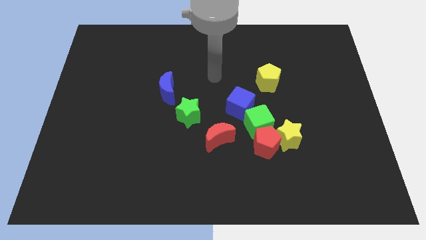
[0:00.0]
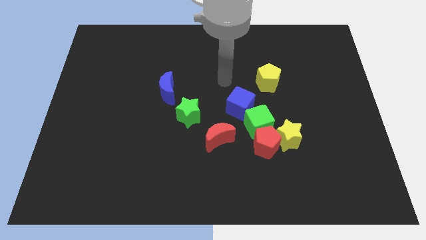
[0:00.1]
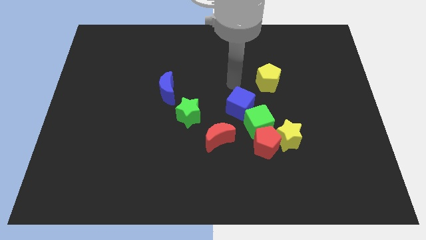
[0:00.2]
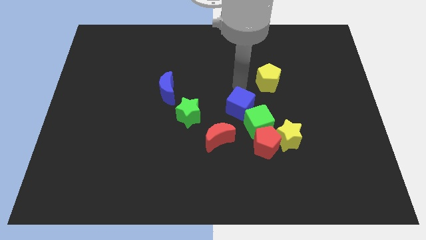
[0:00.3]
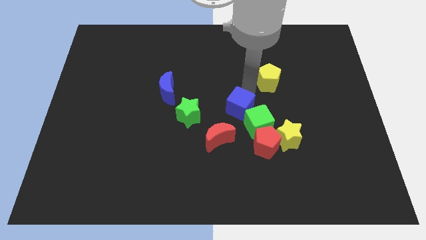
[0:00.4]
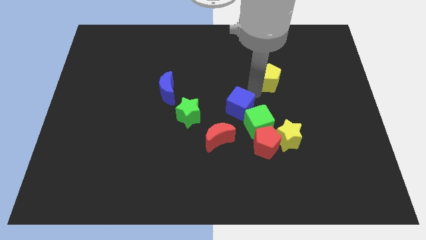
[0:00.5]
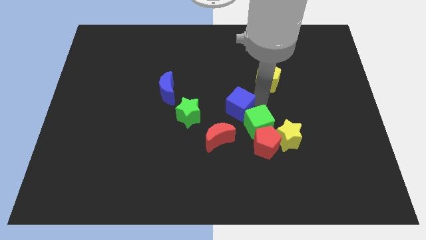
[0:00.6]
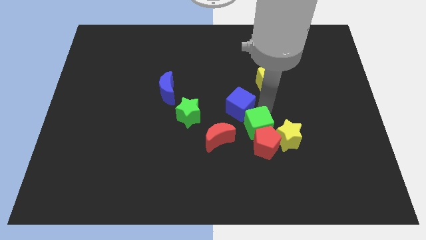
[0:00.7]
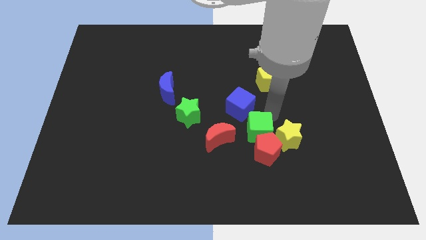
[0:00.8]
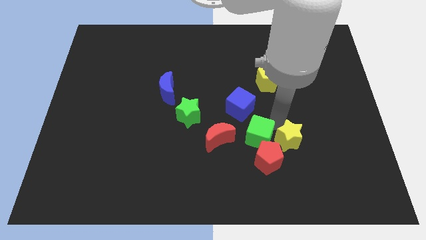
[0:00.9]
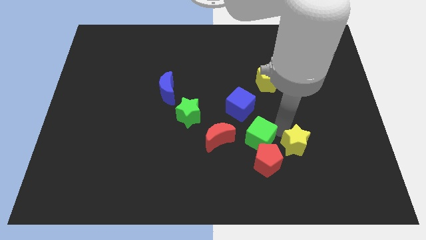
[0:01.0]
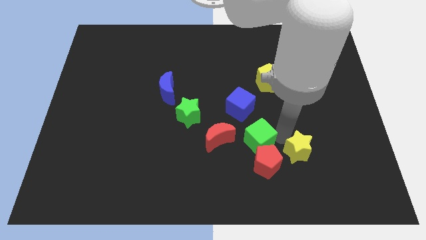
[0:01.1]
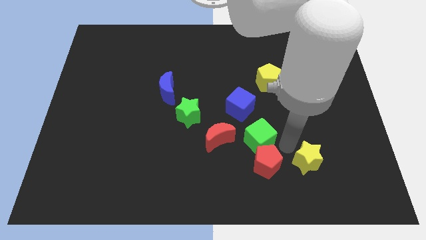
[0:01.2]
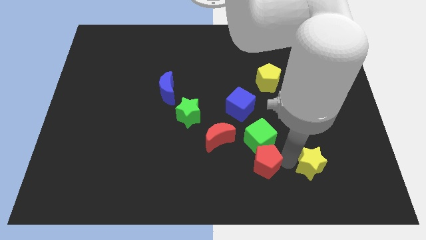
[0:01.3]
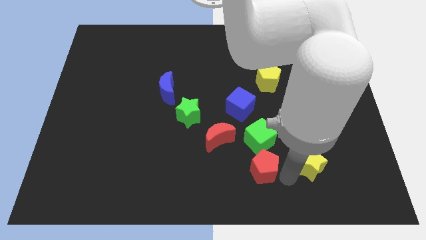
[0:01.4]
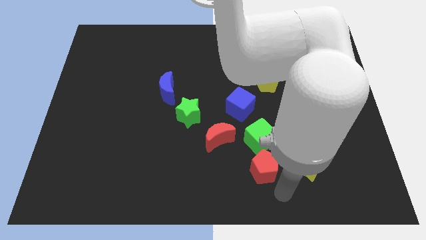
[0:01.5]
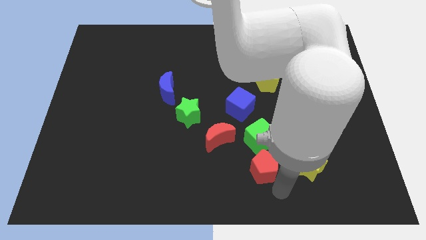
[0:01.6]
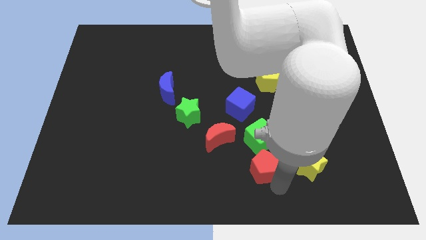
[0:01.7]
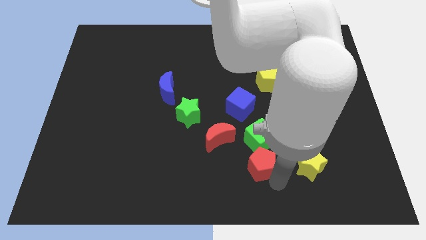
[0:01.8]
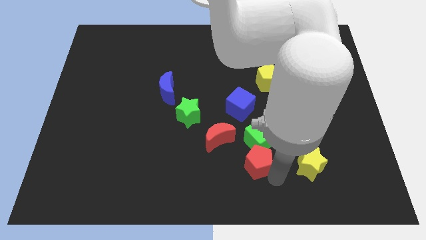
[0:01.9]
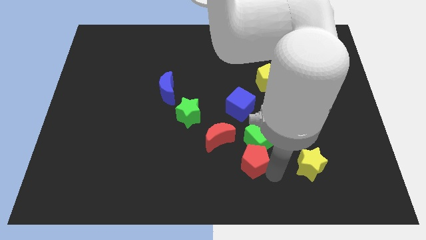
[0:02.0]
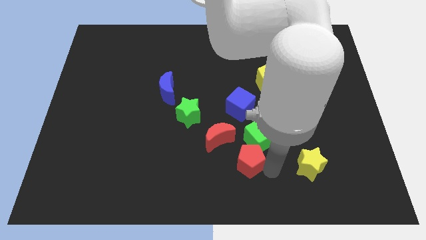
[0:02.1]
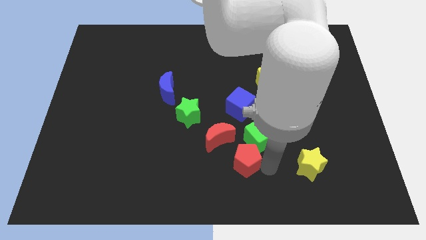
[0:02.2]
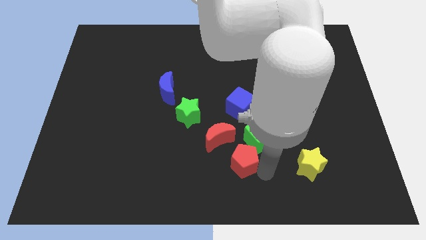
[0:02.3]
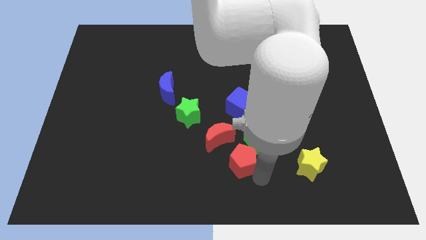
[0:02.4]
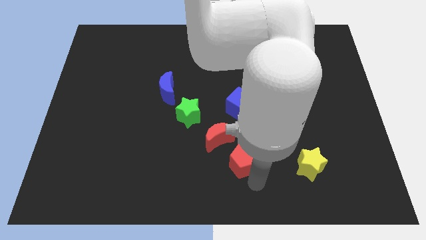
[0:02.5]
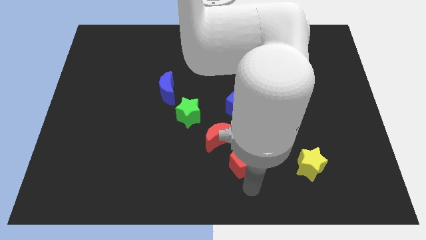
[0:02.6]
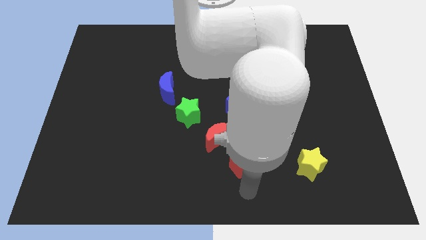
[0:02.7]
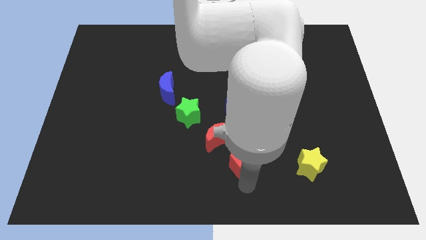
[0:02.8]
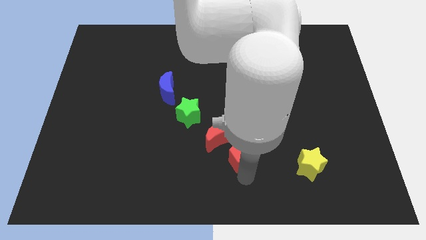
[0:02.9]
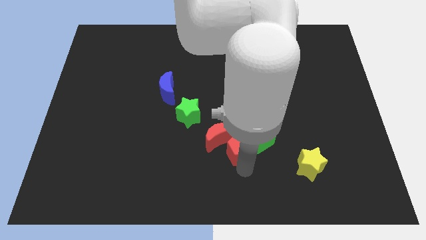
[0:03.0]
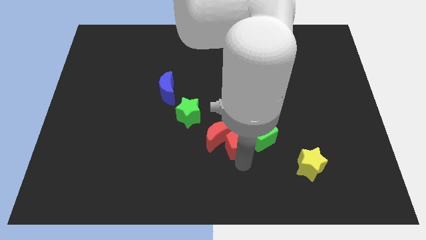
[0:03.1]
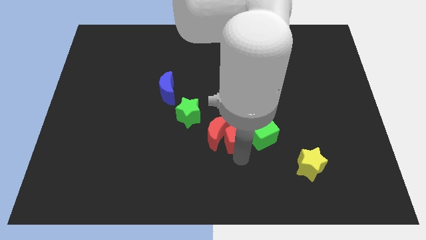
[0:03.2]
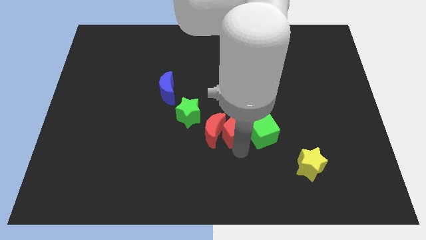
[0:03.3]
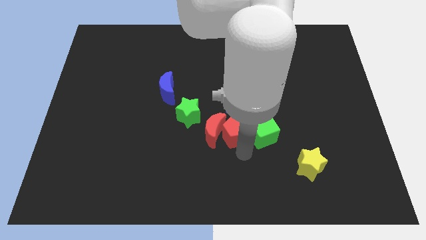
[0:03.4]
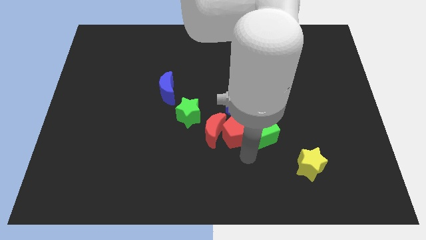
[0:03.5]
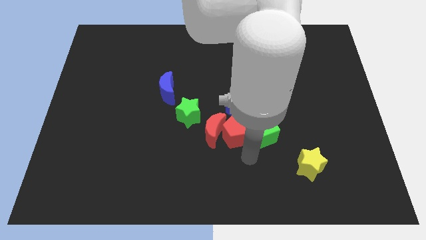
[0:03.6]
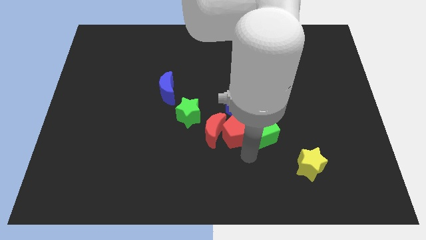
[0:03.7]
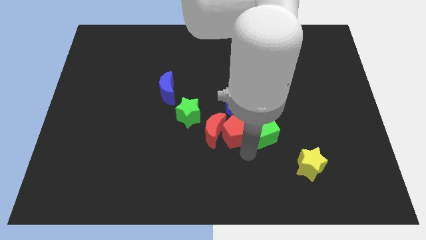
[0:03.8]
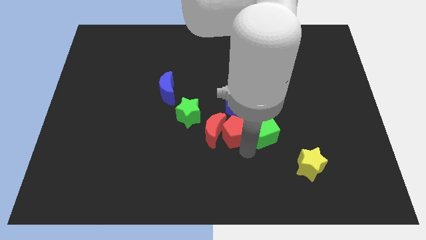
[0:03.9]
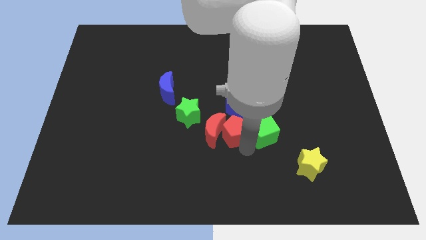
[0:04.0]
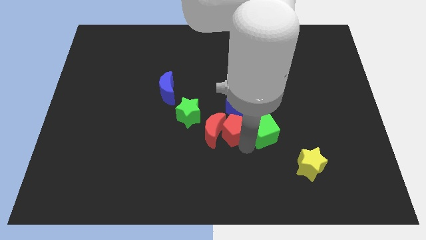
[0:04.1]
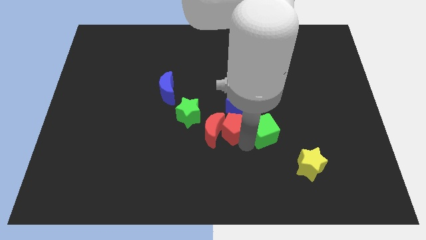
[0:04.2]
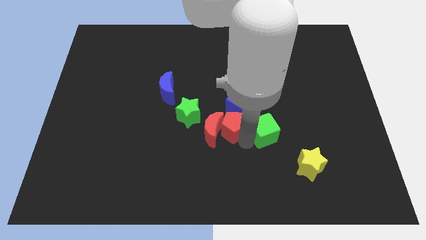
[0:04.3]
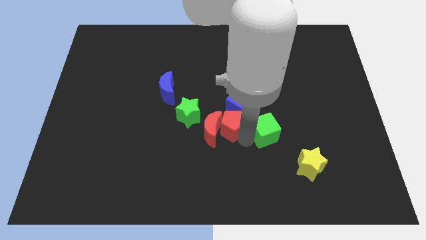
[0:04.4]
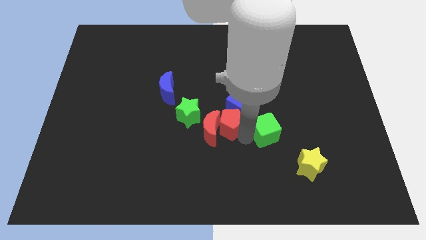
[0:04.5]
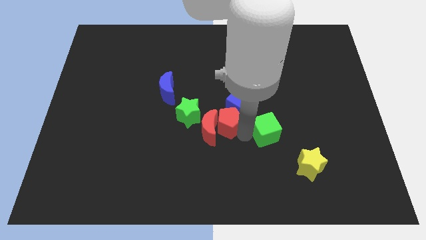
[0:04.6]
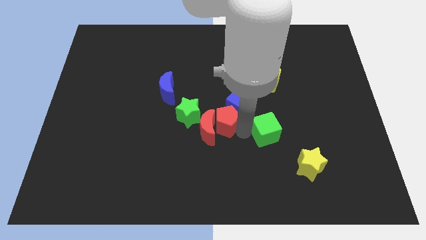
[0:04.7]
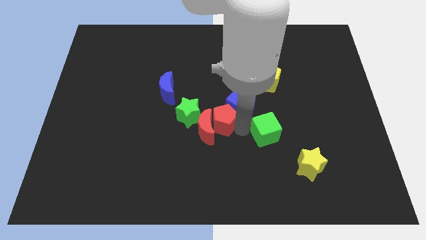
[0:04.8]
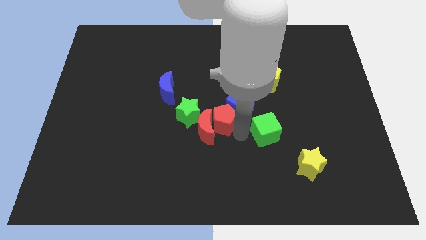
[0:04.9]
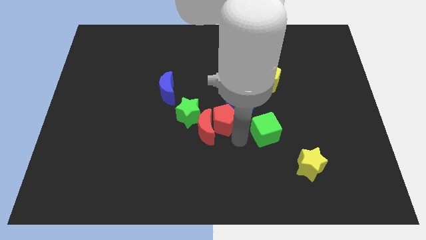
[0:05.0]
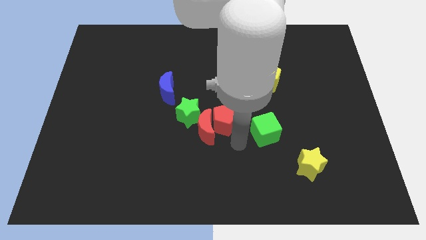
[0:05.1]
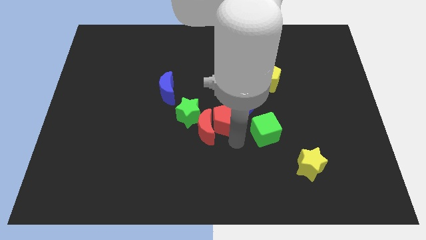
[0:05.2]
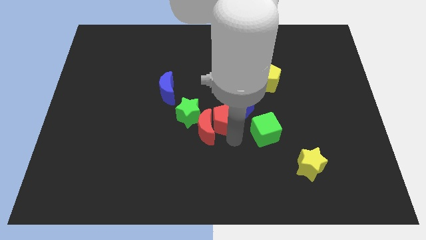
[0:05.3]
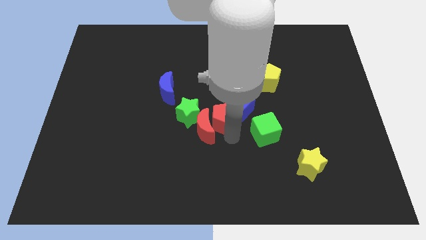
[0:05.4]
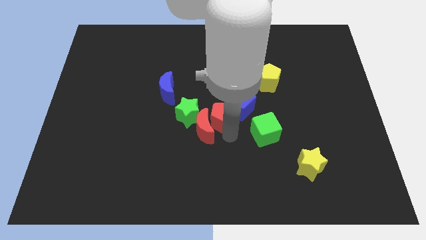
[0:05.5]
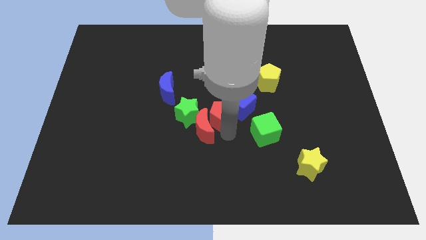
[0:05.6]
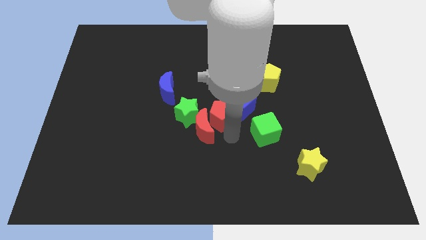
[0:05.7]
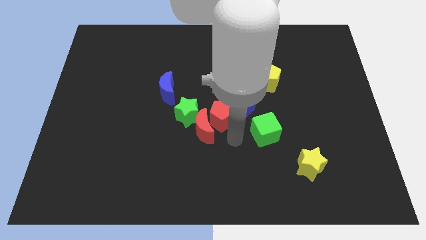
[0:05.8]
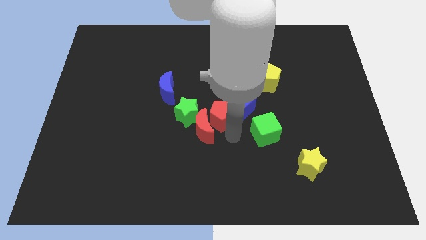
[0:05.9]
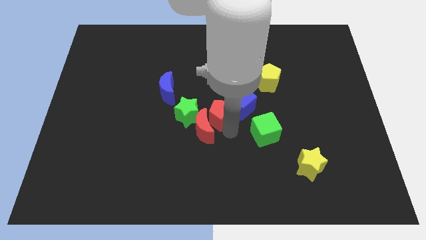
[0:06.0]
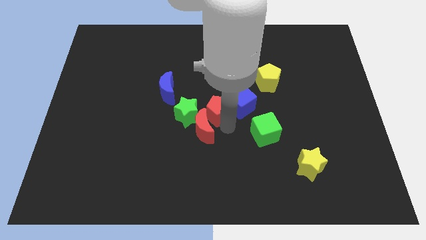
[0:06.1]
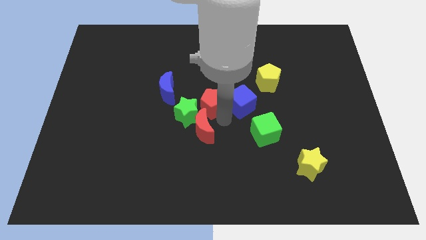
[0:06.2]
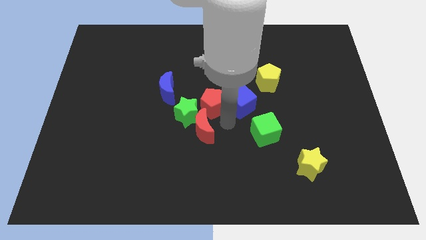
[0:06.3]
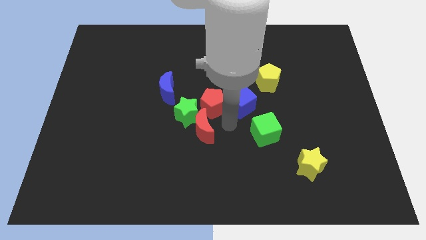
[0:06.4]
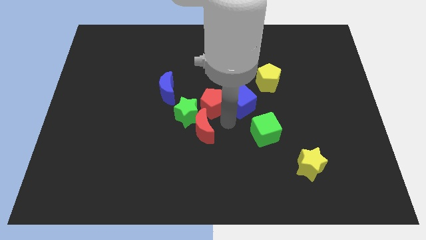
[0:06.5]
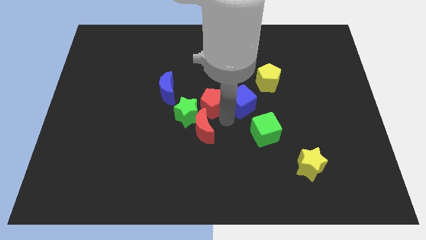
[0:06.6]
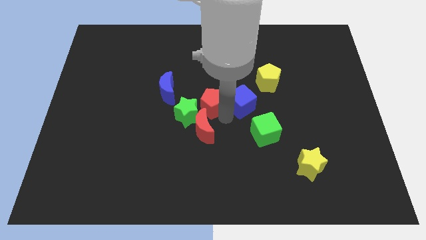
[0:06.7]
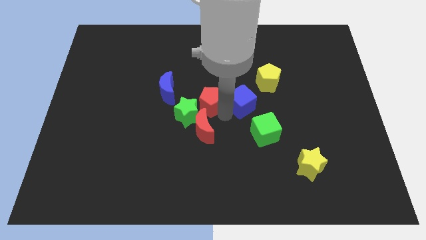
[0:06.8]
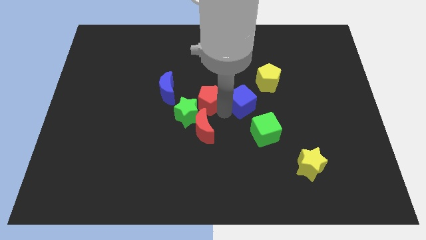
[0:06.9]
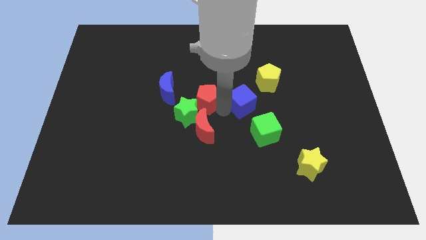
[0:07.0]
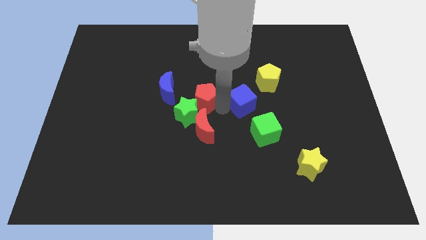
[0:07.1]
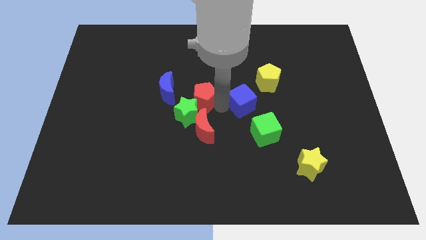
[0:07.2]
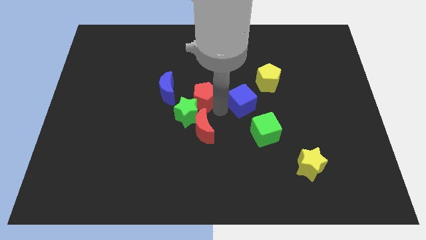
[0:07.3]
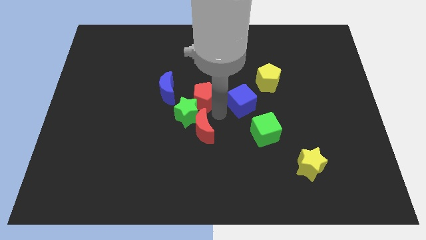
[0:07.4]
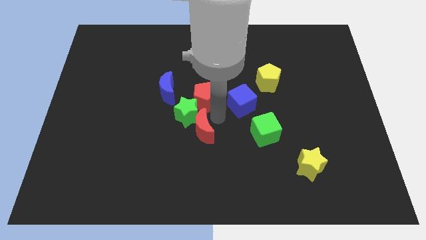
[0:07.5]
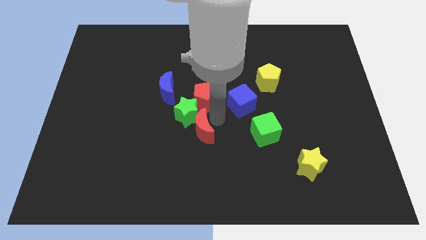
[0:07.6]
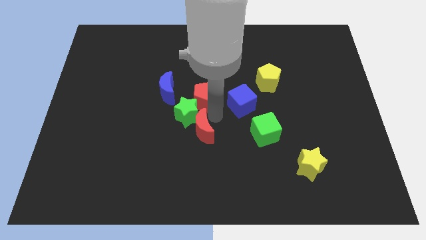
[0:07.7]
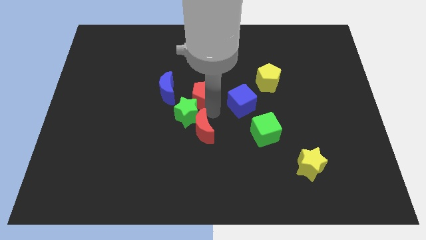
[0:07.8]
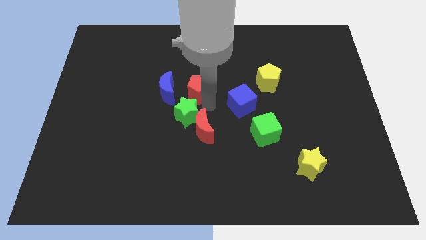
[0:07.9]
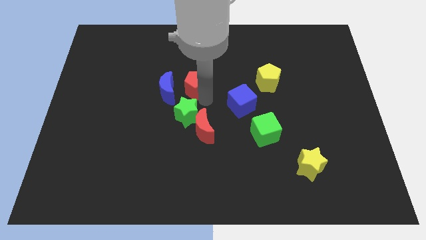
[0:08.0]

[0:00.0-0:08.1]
move the red pentagon to the top right of the blue moon
